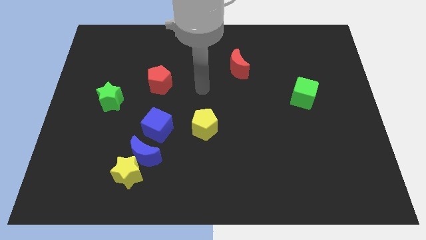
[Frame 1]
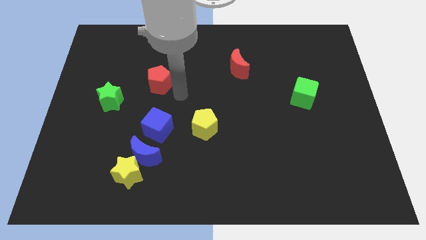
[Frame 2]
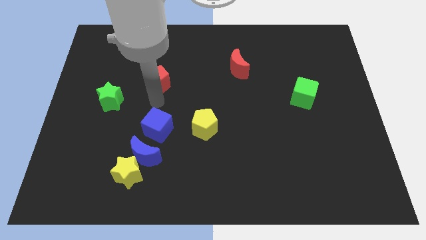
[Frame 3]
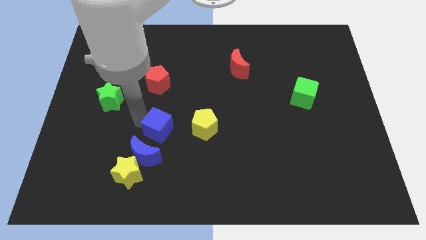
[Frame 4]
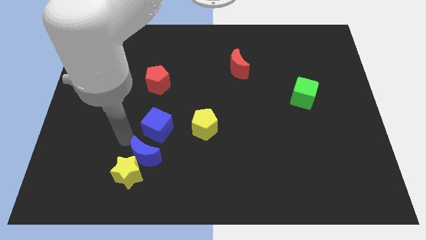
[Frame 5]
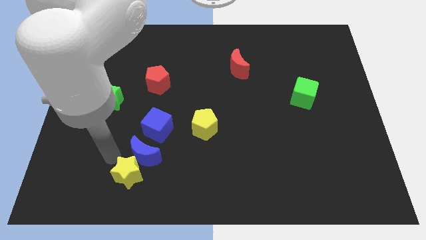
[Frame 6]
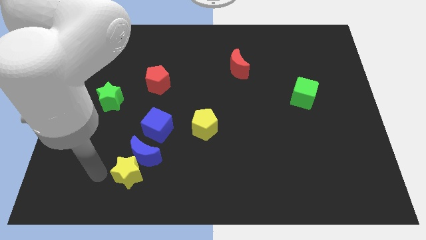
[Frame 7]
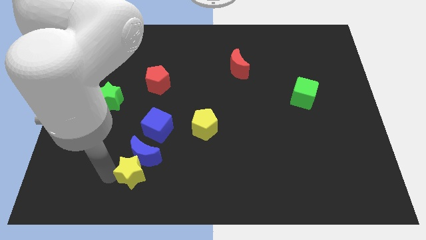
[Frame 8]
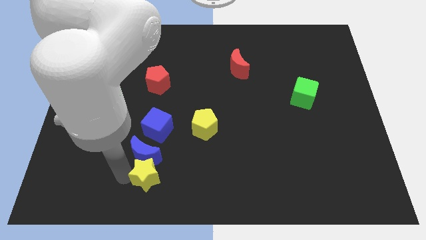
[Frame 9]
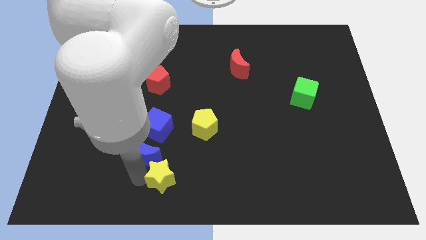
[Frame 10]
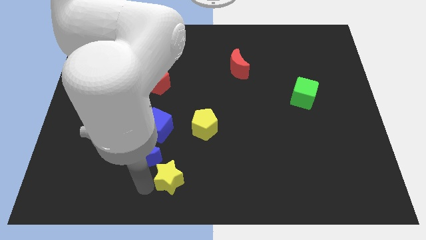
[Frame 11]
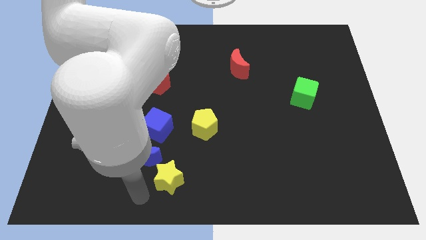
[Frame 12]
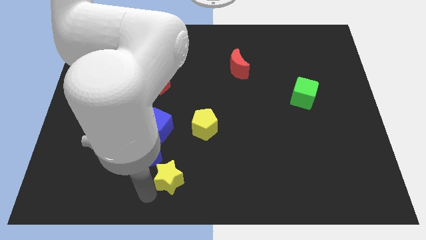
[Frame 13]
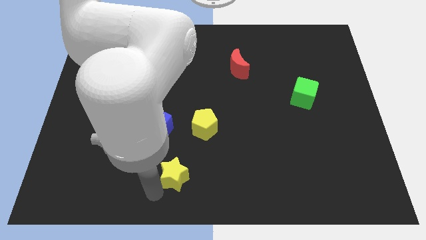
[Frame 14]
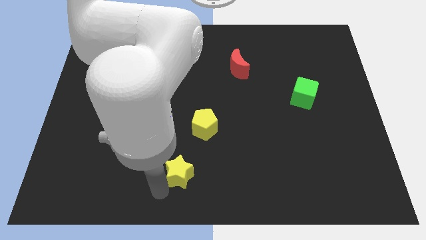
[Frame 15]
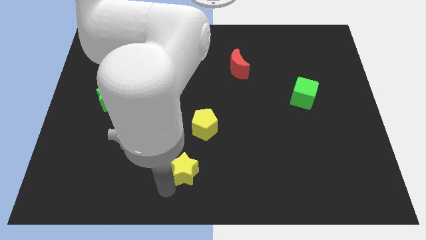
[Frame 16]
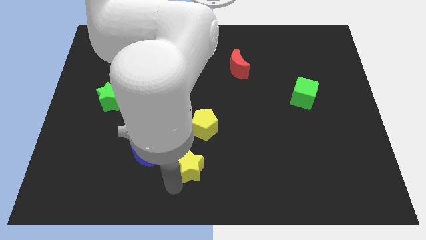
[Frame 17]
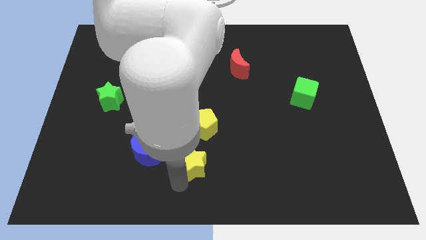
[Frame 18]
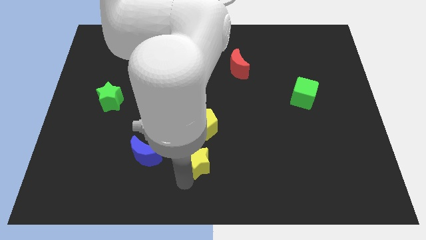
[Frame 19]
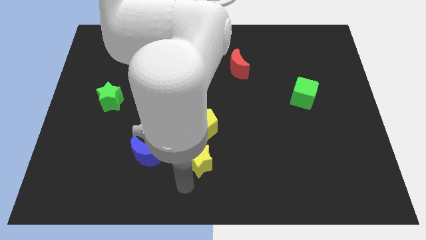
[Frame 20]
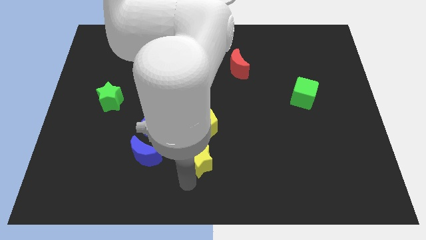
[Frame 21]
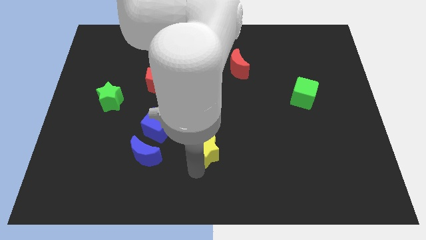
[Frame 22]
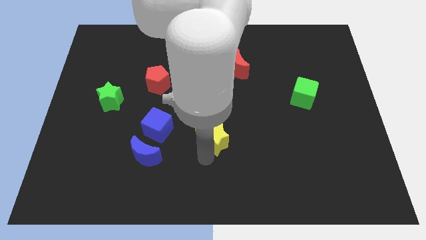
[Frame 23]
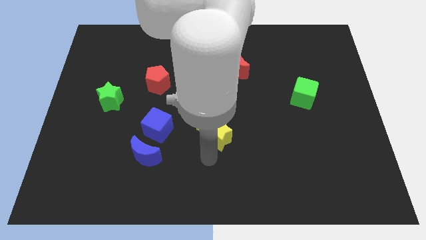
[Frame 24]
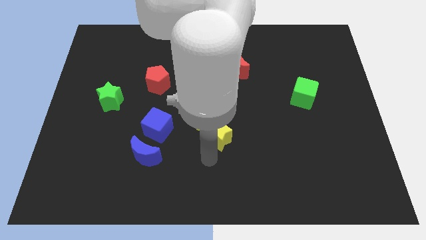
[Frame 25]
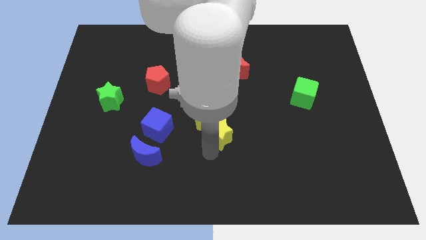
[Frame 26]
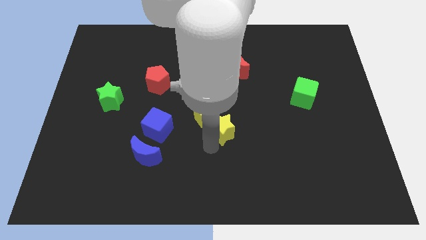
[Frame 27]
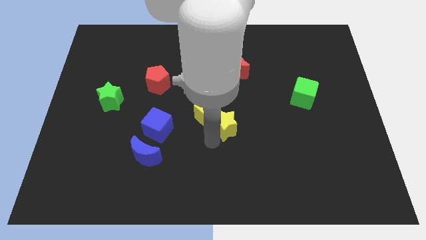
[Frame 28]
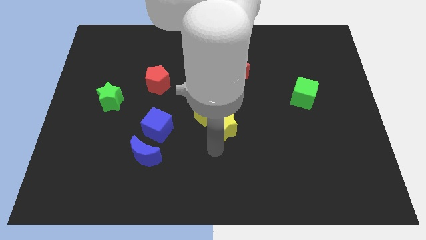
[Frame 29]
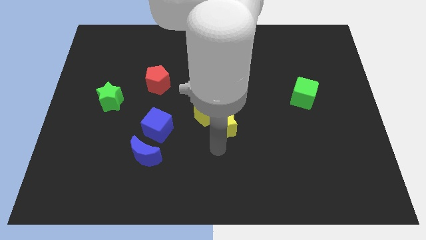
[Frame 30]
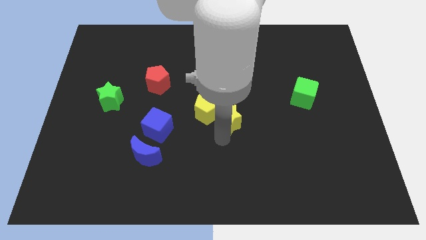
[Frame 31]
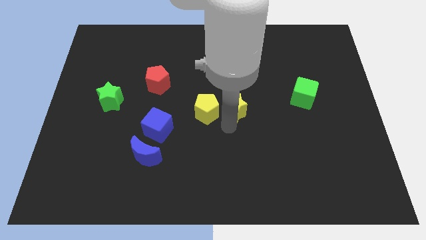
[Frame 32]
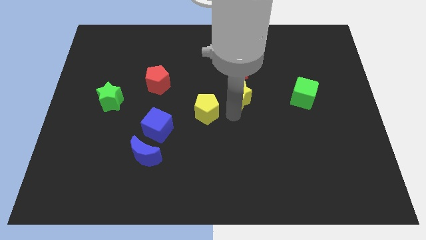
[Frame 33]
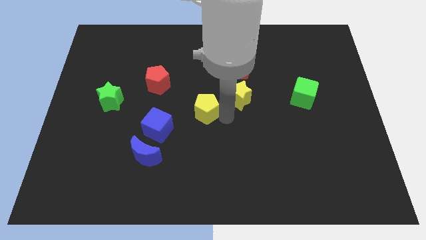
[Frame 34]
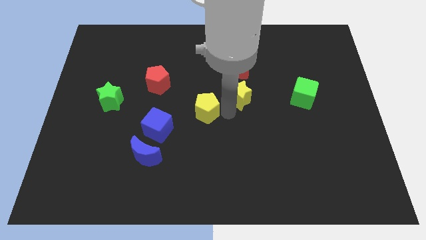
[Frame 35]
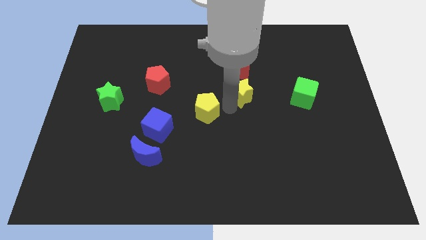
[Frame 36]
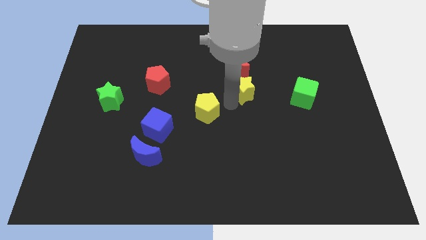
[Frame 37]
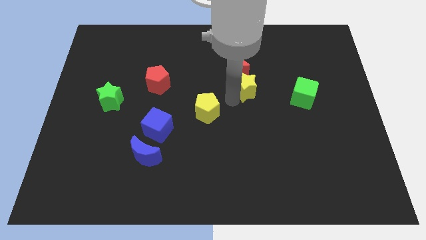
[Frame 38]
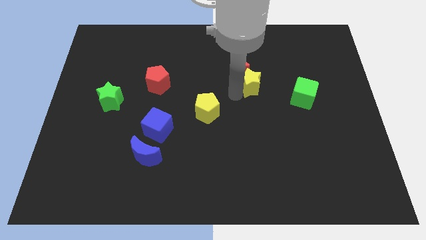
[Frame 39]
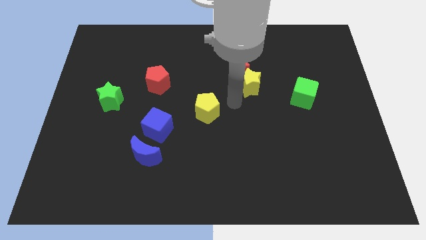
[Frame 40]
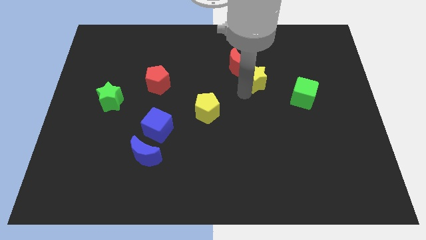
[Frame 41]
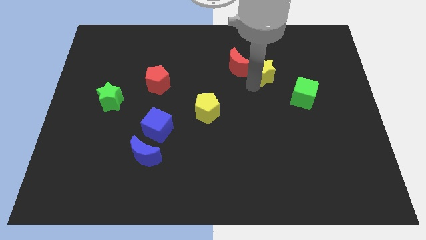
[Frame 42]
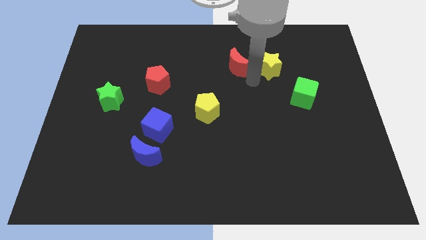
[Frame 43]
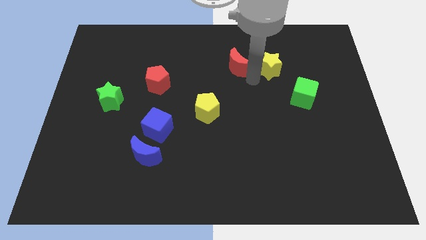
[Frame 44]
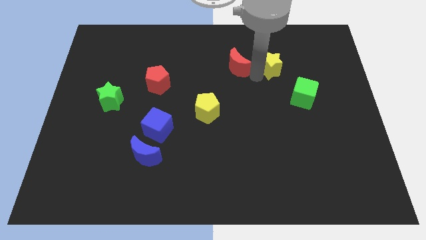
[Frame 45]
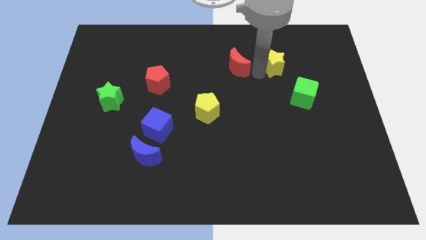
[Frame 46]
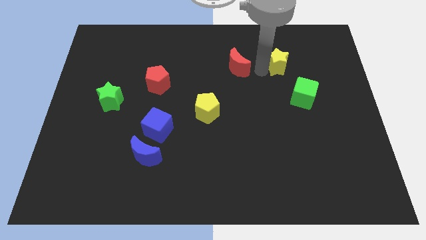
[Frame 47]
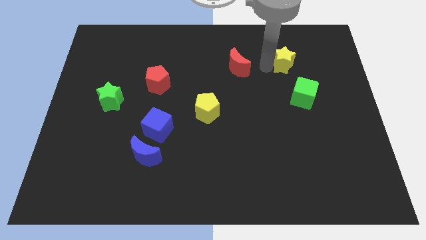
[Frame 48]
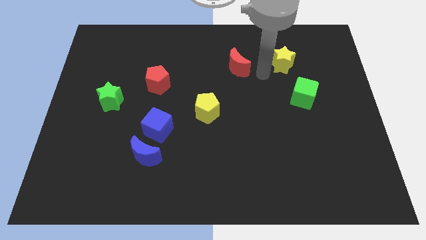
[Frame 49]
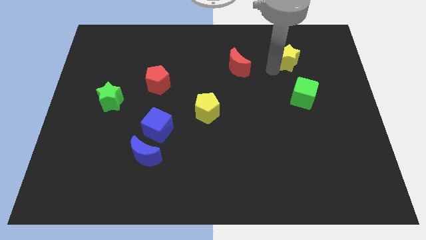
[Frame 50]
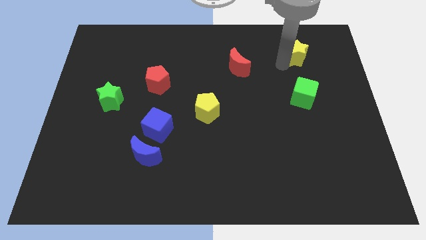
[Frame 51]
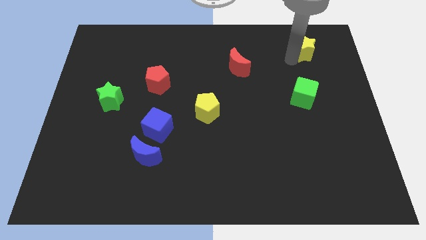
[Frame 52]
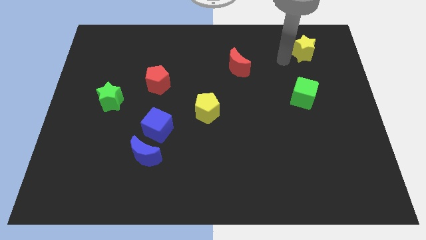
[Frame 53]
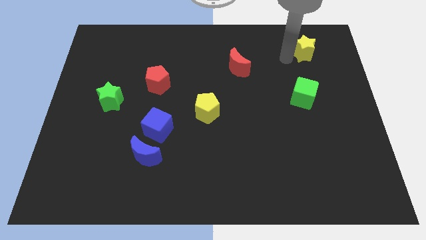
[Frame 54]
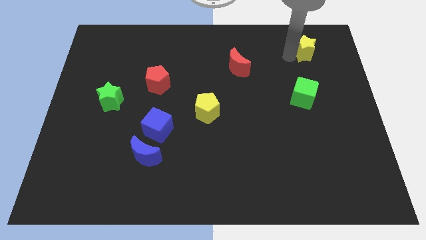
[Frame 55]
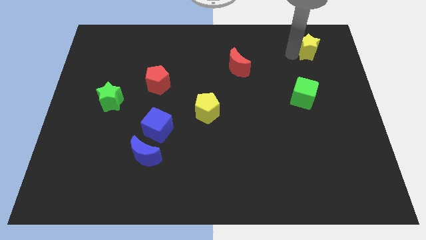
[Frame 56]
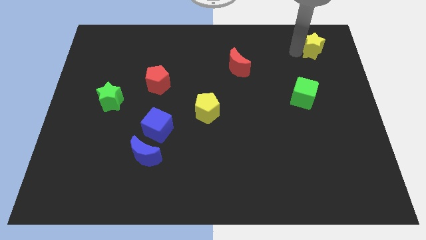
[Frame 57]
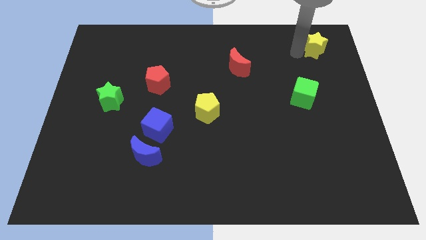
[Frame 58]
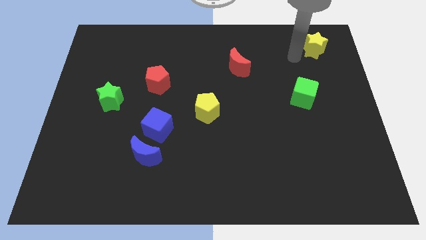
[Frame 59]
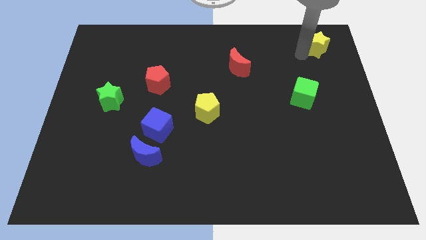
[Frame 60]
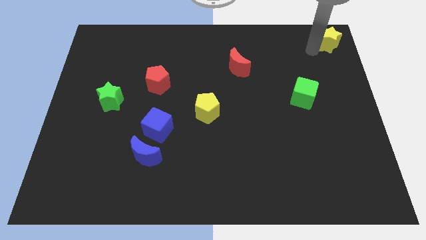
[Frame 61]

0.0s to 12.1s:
put the yellow star to the top right of the board

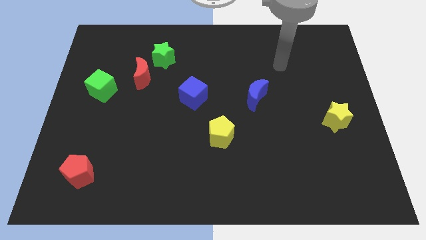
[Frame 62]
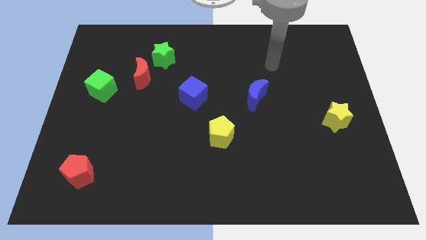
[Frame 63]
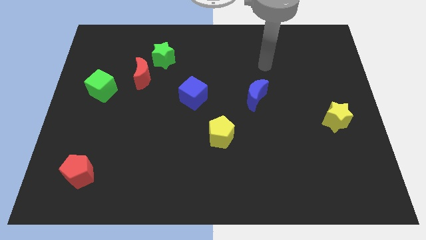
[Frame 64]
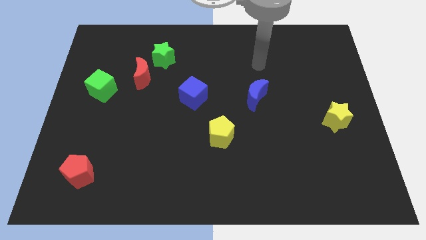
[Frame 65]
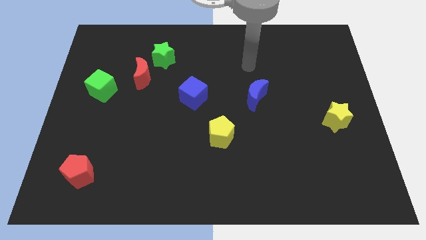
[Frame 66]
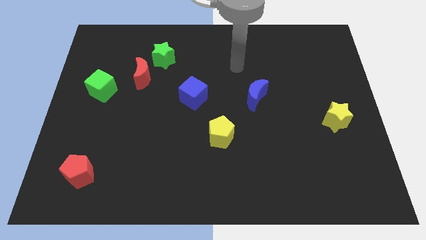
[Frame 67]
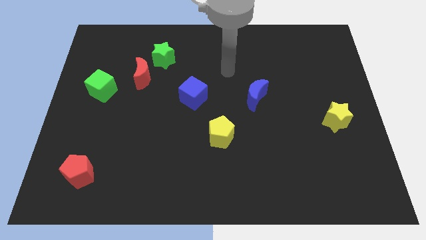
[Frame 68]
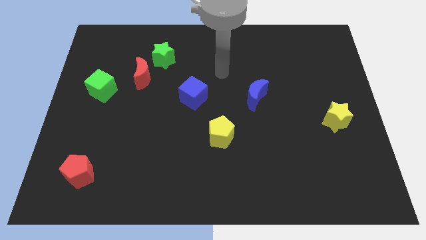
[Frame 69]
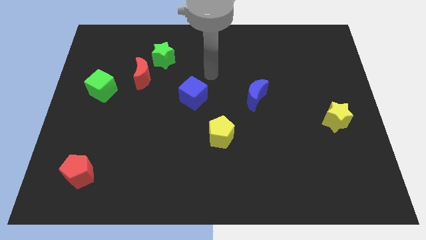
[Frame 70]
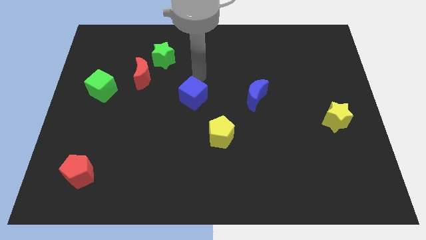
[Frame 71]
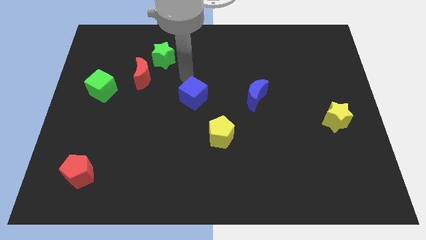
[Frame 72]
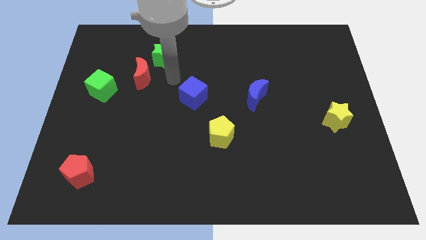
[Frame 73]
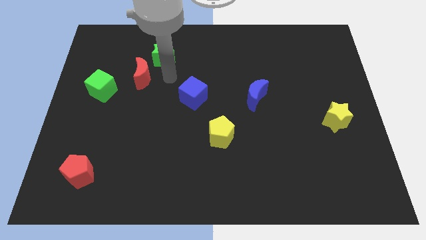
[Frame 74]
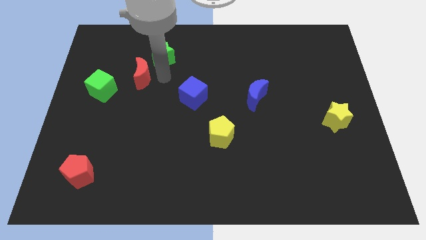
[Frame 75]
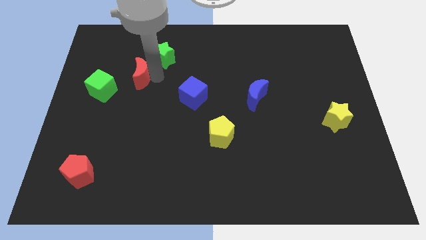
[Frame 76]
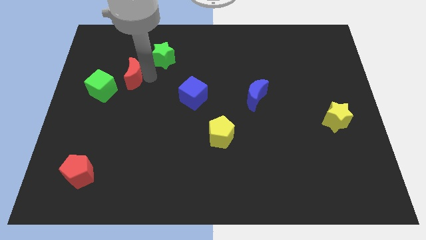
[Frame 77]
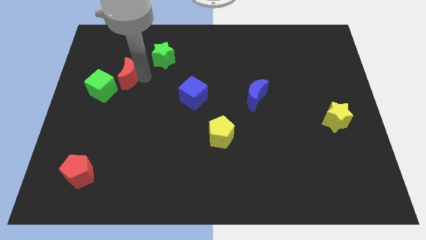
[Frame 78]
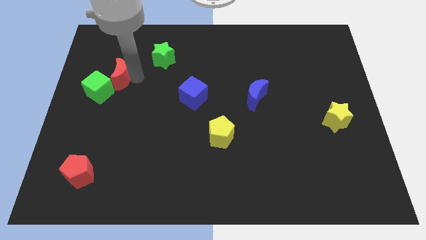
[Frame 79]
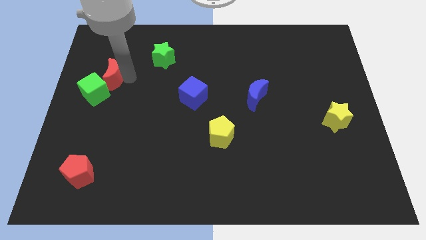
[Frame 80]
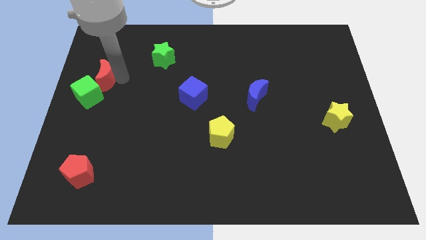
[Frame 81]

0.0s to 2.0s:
put the red moon to the left side of the board
